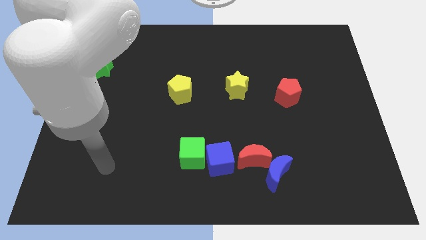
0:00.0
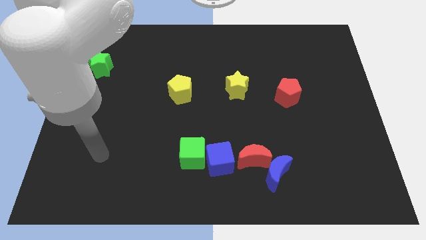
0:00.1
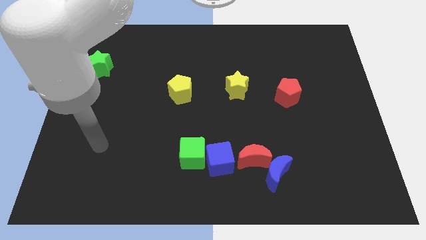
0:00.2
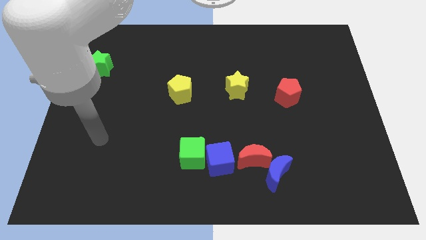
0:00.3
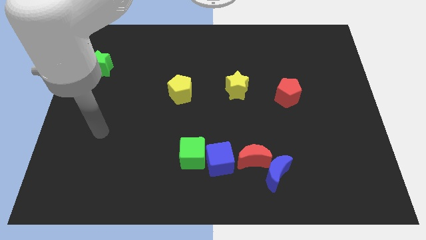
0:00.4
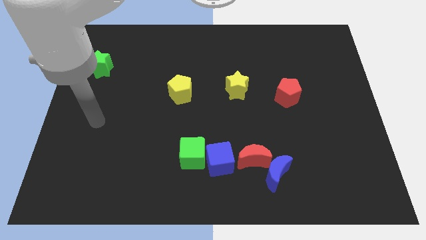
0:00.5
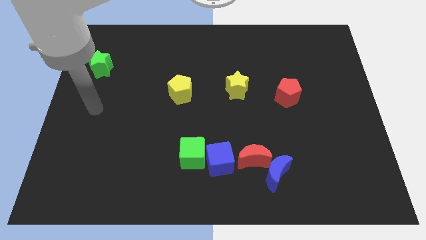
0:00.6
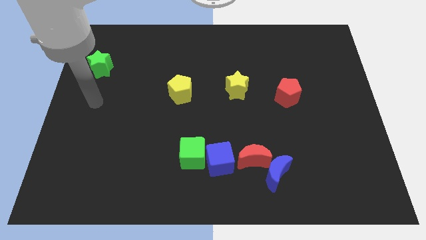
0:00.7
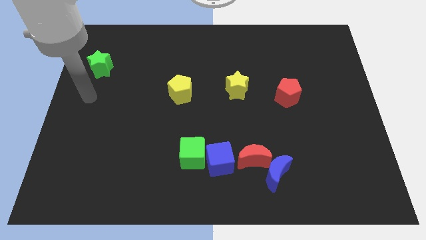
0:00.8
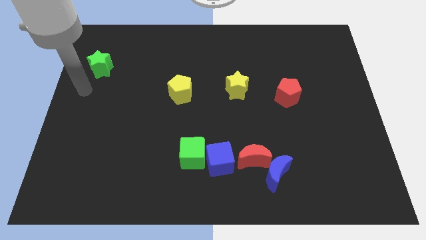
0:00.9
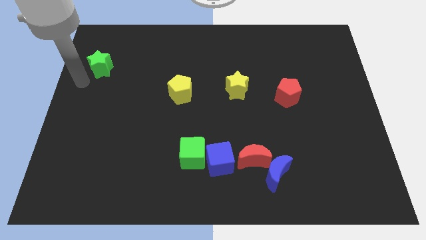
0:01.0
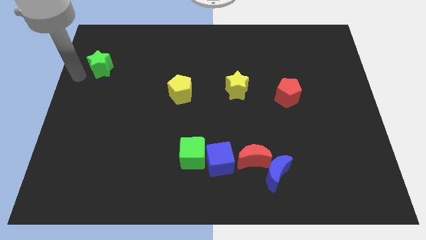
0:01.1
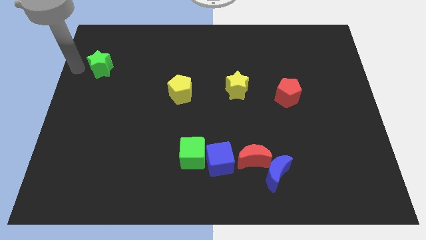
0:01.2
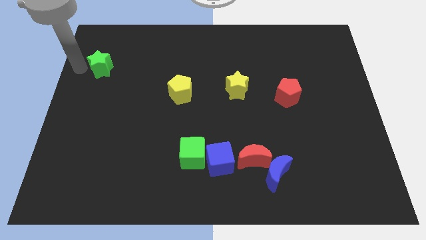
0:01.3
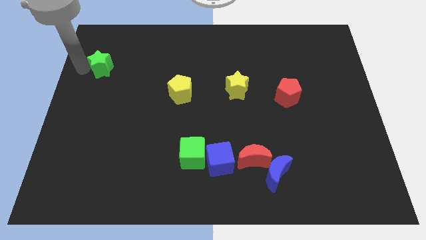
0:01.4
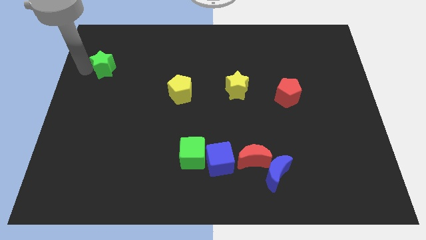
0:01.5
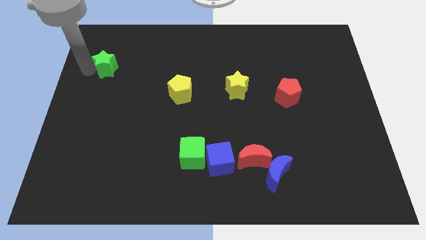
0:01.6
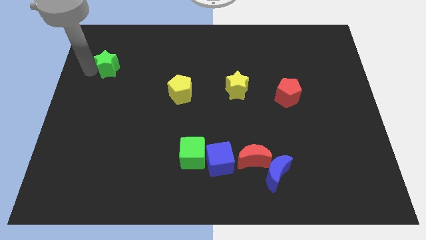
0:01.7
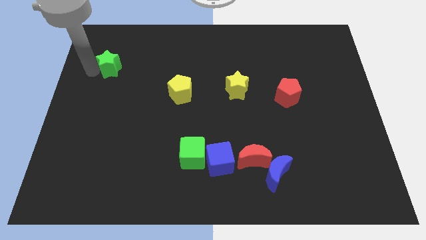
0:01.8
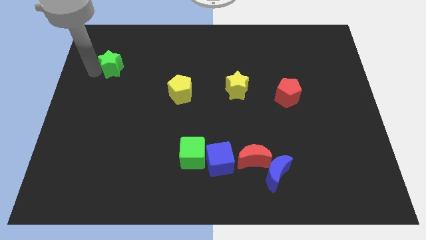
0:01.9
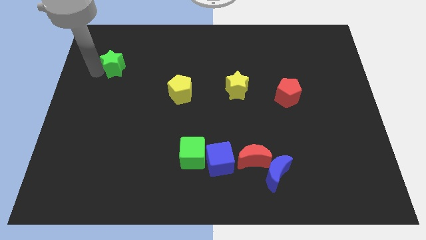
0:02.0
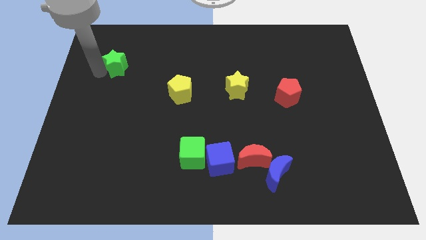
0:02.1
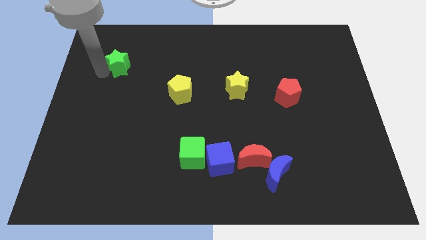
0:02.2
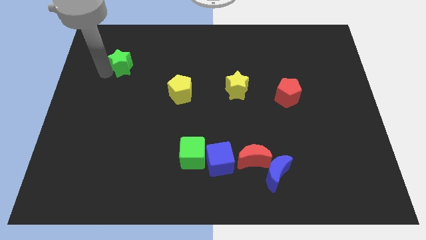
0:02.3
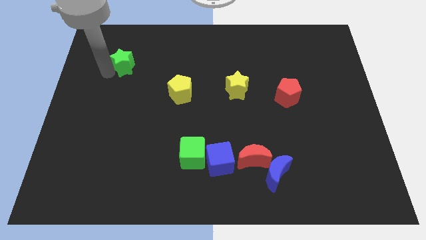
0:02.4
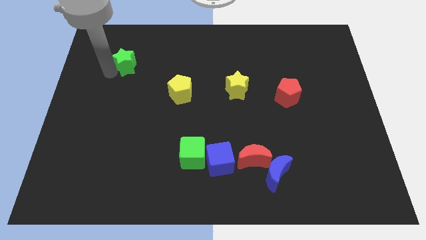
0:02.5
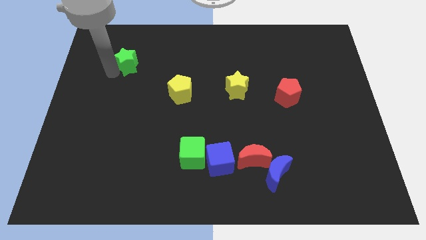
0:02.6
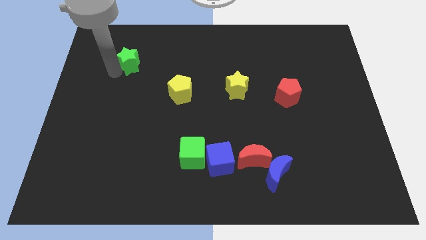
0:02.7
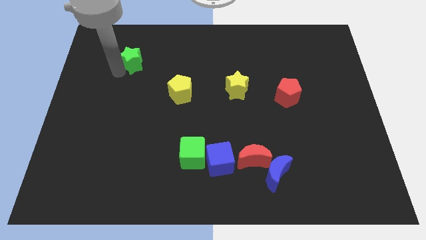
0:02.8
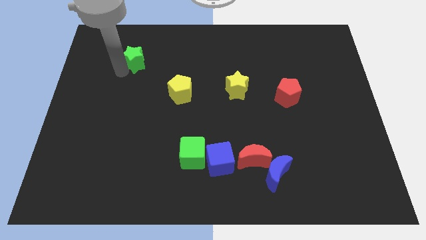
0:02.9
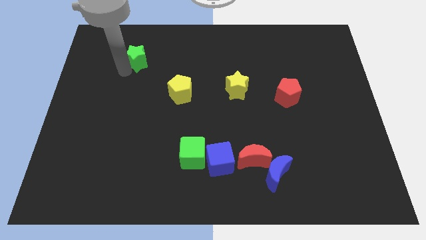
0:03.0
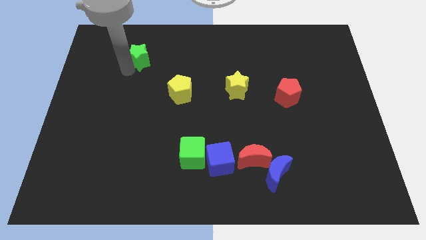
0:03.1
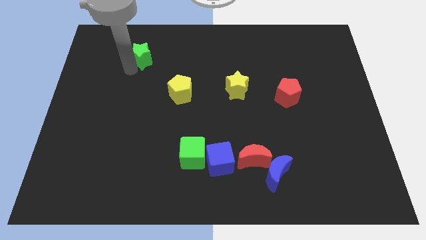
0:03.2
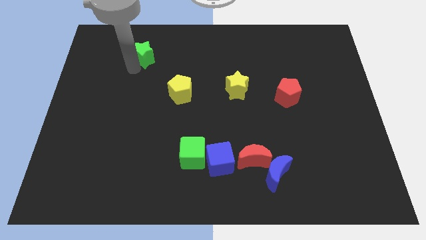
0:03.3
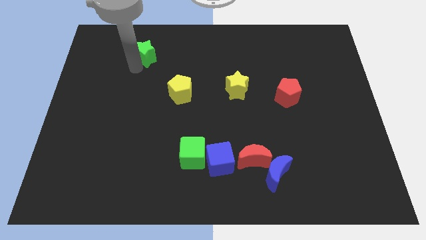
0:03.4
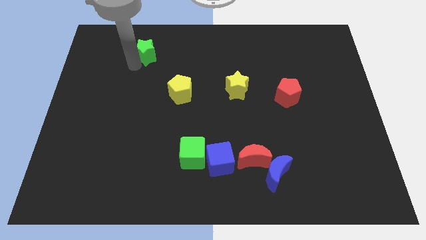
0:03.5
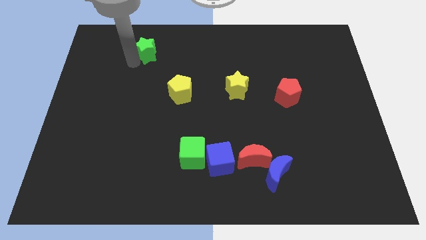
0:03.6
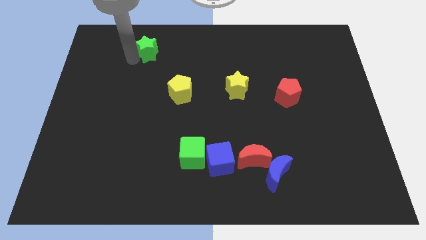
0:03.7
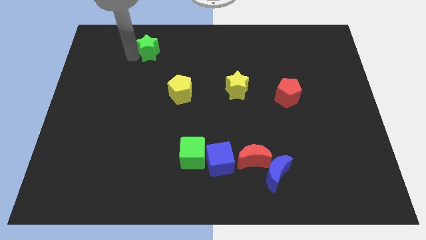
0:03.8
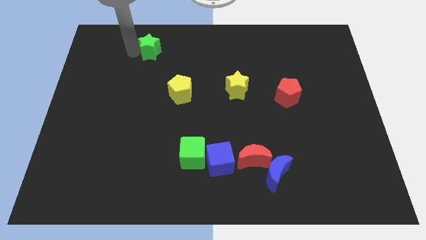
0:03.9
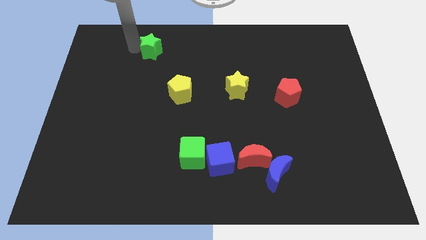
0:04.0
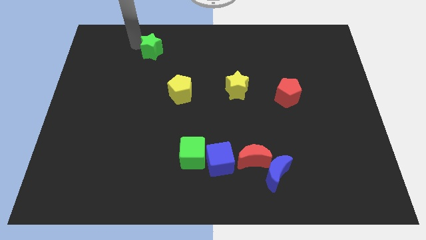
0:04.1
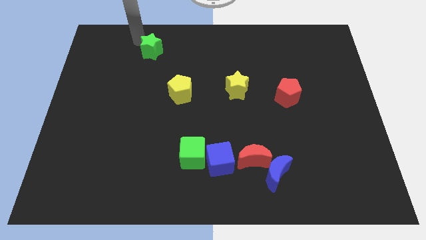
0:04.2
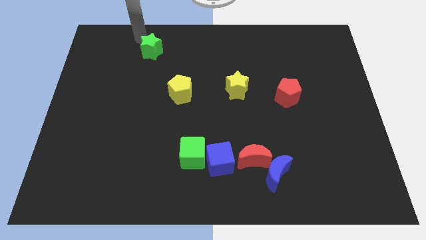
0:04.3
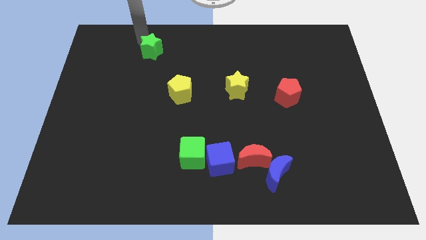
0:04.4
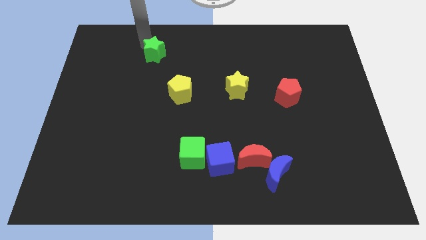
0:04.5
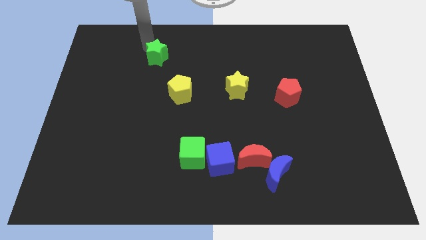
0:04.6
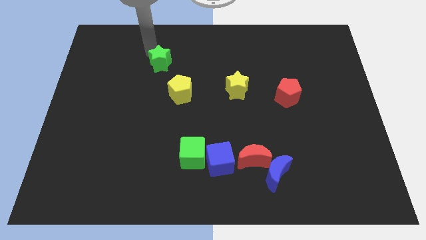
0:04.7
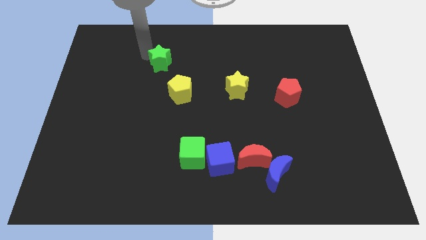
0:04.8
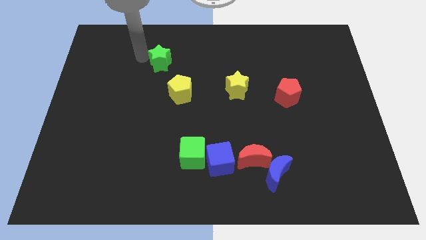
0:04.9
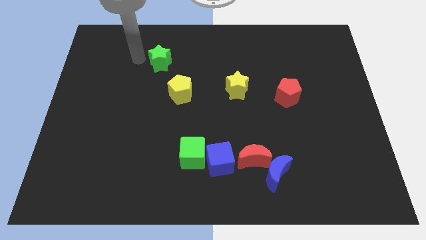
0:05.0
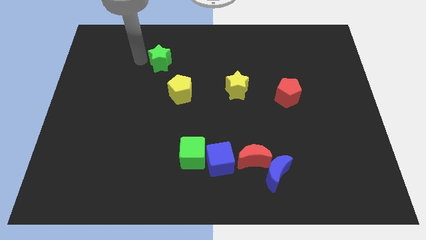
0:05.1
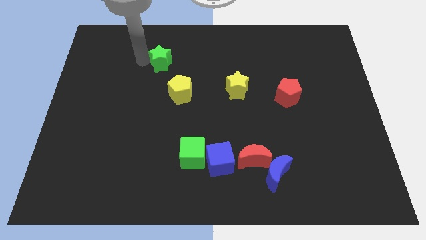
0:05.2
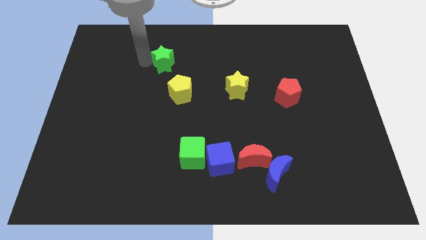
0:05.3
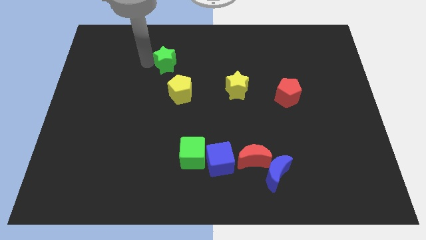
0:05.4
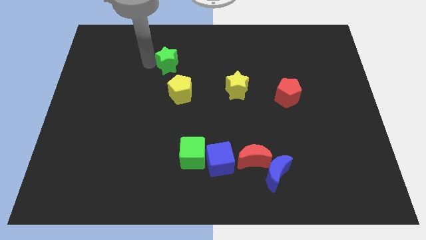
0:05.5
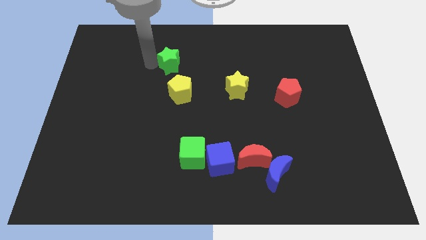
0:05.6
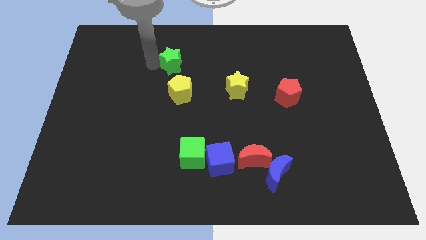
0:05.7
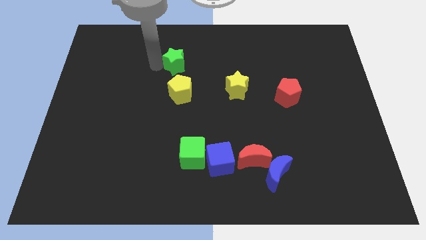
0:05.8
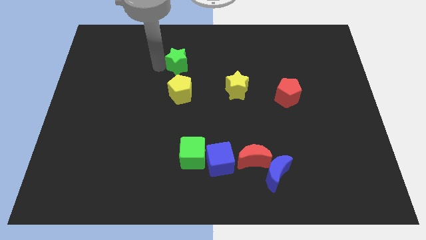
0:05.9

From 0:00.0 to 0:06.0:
move the green star to the right

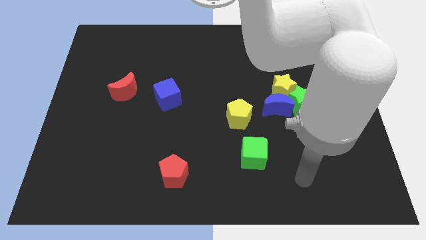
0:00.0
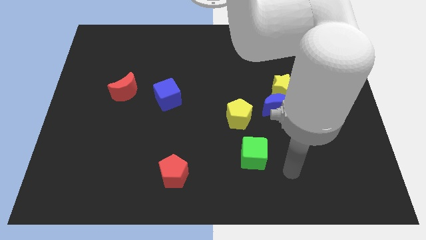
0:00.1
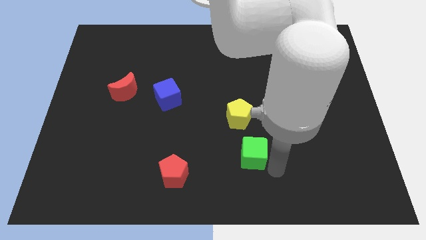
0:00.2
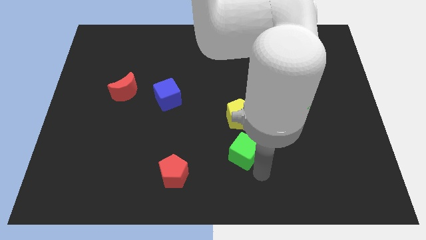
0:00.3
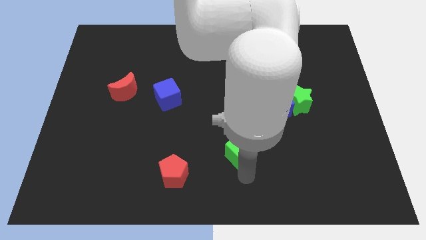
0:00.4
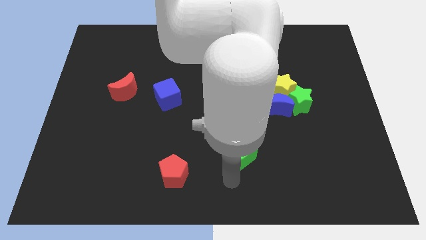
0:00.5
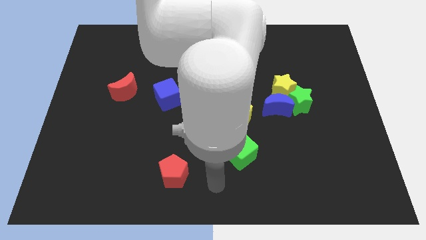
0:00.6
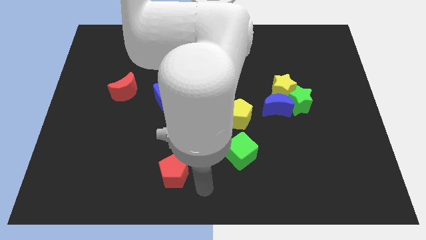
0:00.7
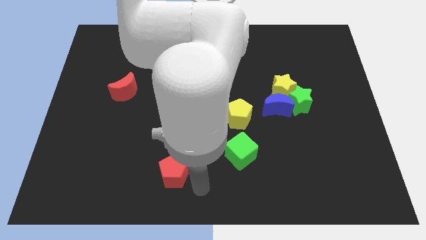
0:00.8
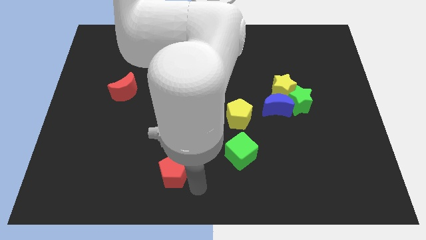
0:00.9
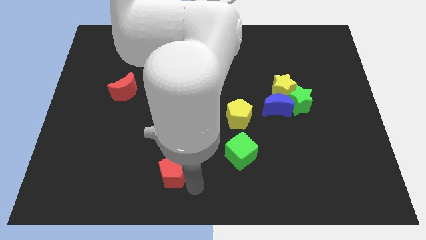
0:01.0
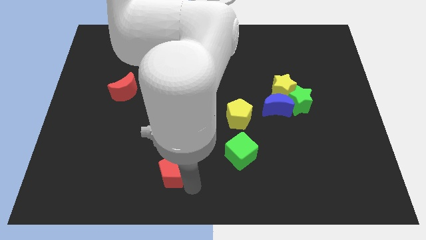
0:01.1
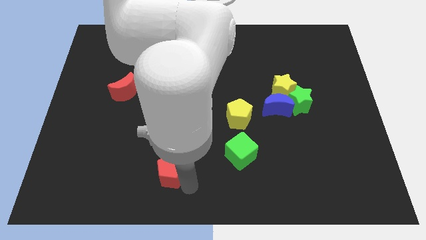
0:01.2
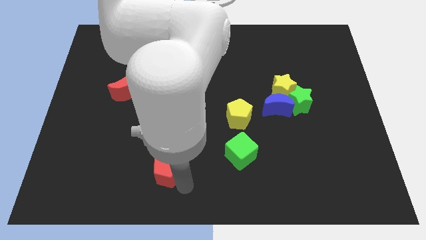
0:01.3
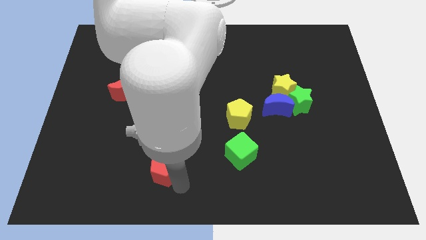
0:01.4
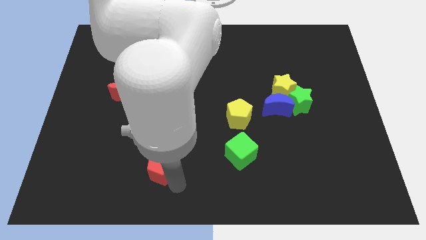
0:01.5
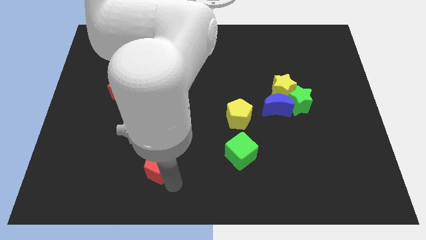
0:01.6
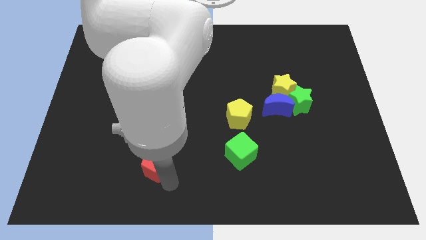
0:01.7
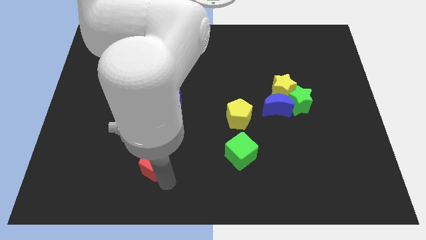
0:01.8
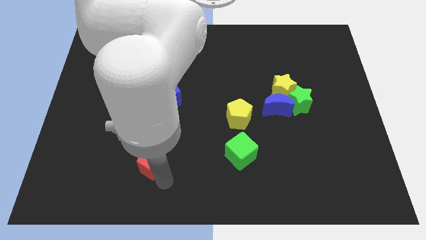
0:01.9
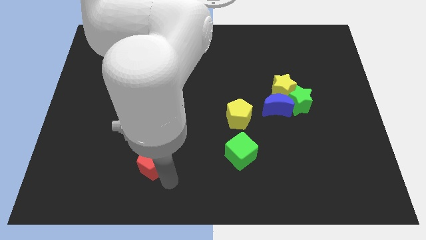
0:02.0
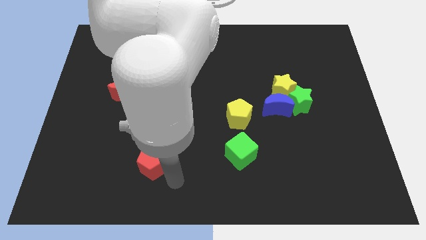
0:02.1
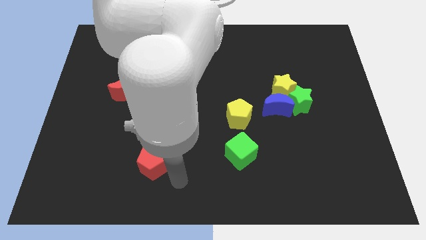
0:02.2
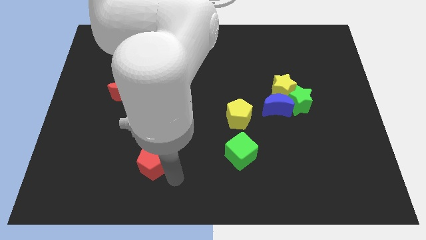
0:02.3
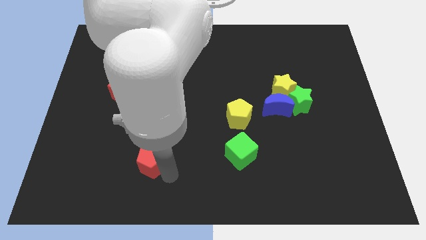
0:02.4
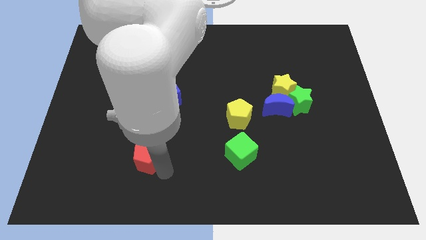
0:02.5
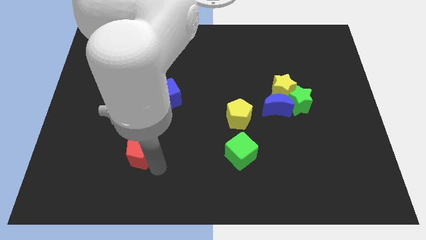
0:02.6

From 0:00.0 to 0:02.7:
move the red pentagon a bit upwards and left diagonally
